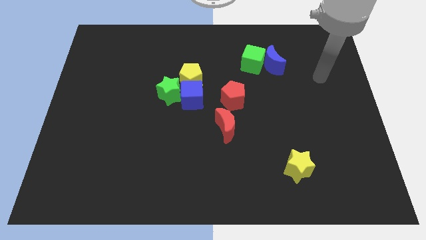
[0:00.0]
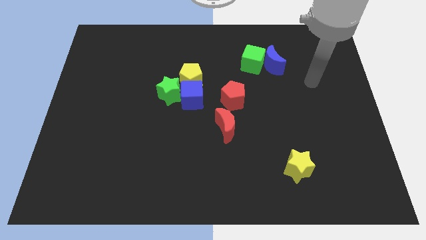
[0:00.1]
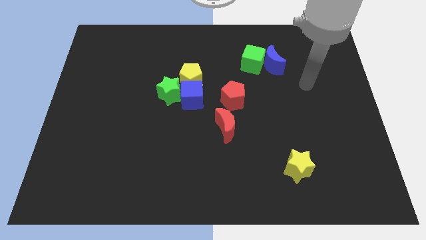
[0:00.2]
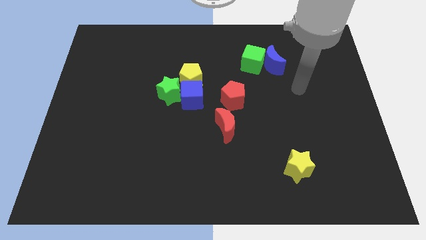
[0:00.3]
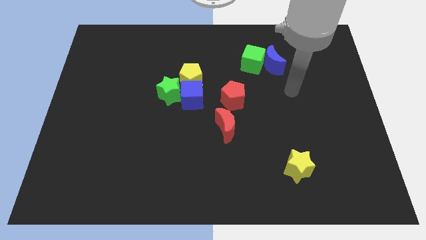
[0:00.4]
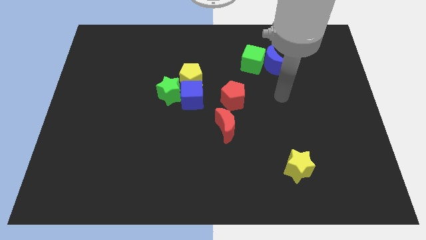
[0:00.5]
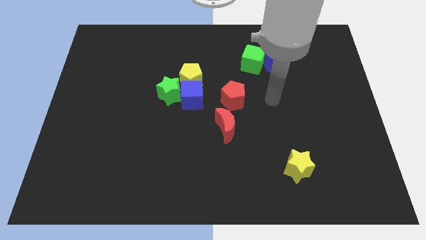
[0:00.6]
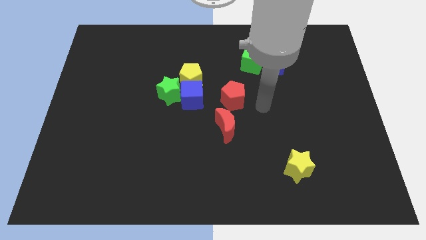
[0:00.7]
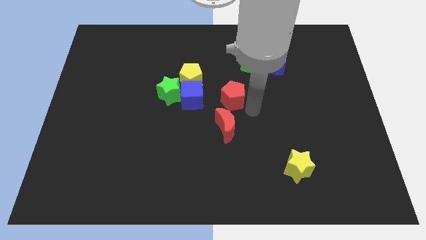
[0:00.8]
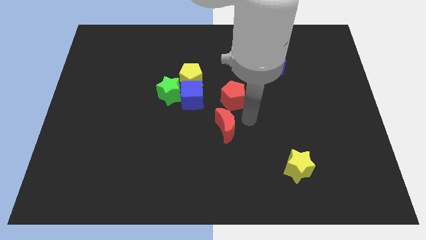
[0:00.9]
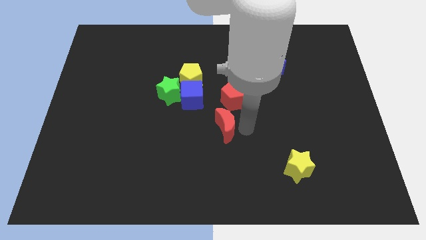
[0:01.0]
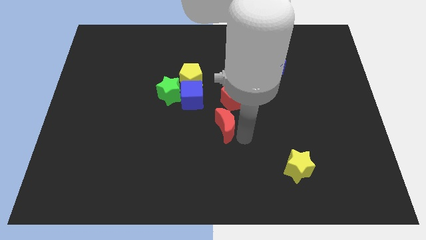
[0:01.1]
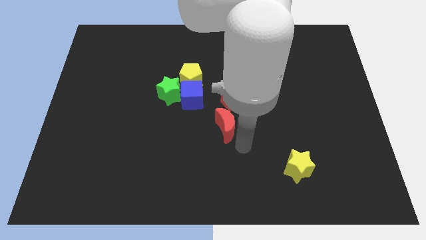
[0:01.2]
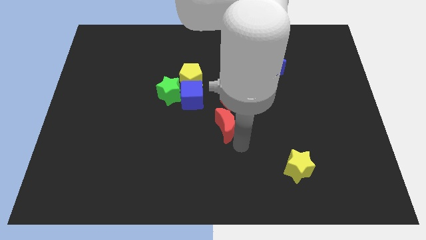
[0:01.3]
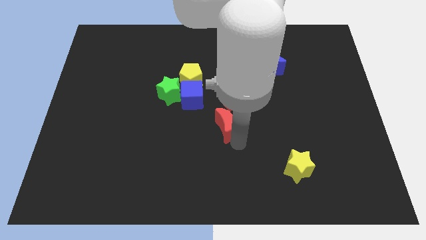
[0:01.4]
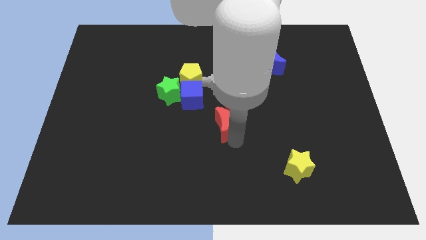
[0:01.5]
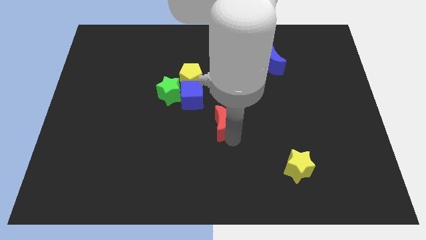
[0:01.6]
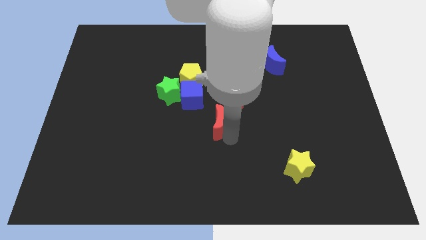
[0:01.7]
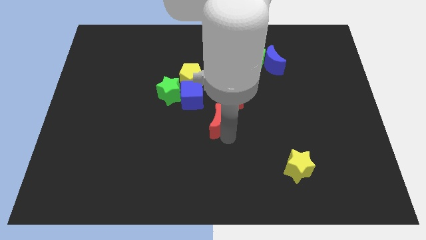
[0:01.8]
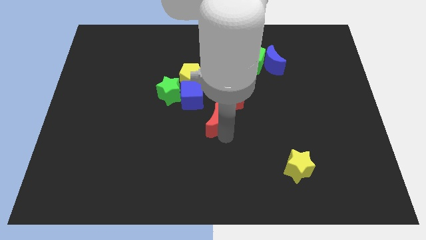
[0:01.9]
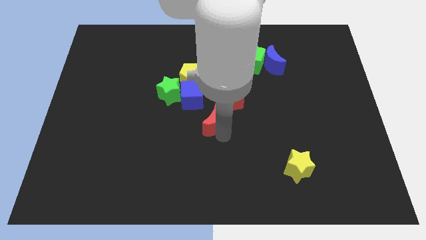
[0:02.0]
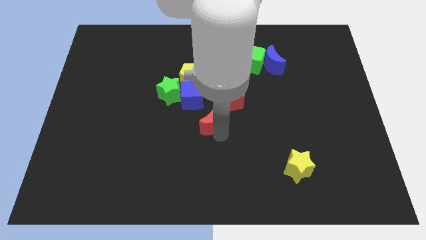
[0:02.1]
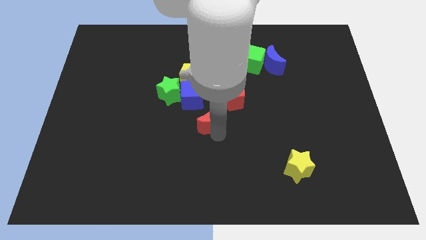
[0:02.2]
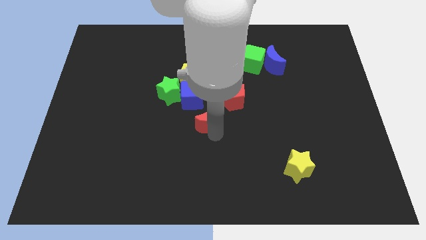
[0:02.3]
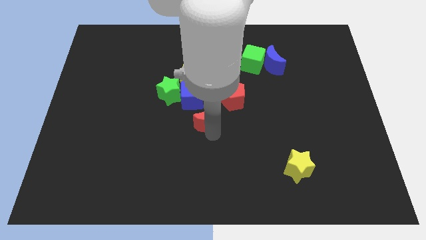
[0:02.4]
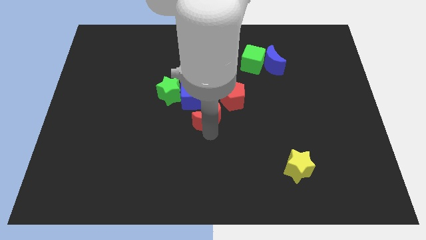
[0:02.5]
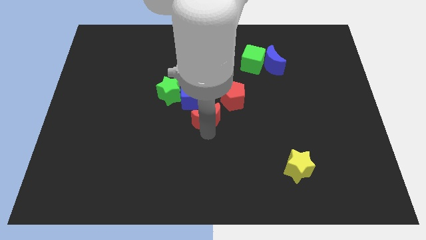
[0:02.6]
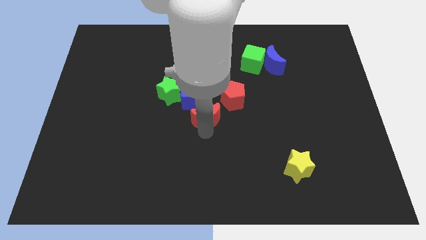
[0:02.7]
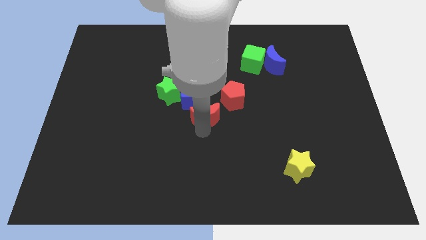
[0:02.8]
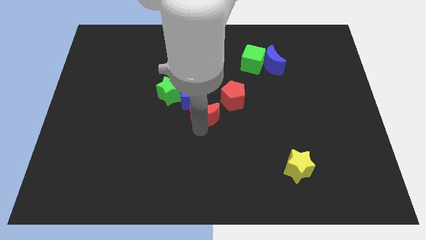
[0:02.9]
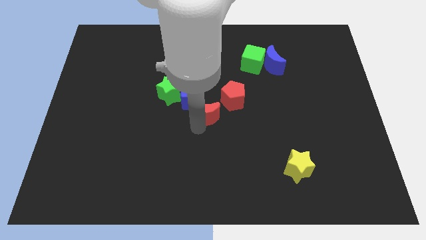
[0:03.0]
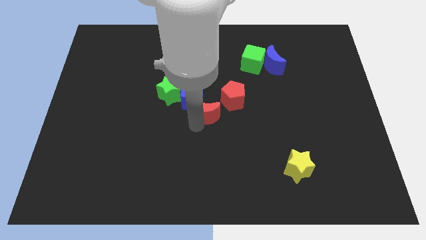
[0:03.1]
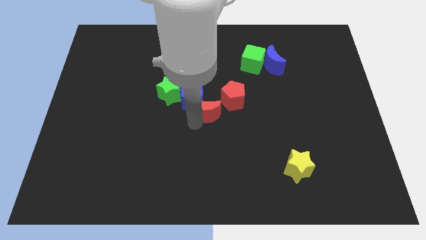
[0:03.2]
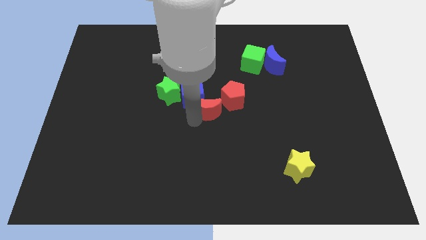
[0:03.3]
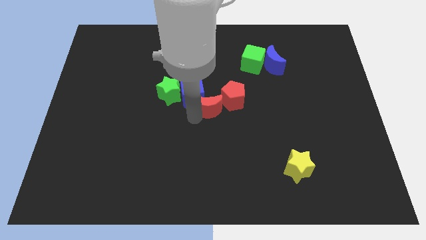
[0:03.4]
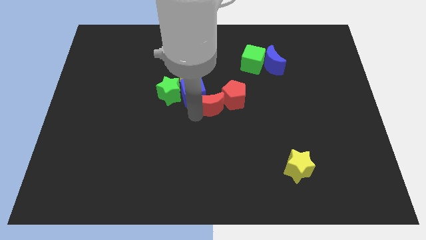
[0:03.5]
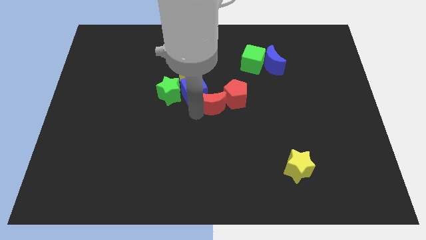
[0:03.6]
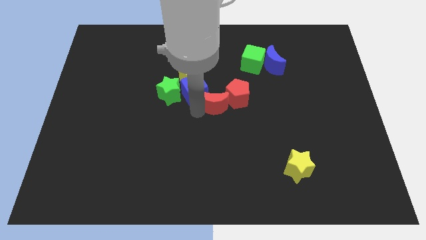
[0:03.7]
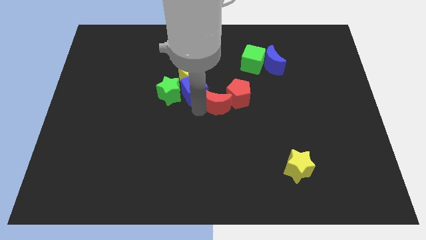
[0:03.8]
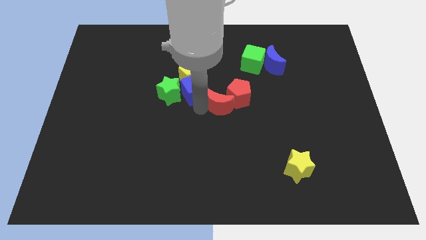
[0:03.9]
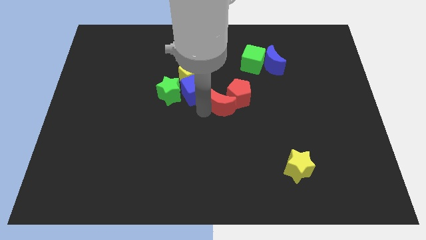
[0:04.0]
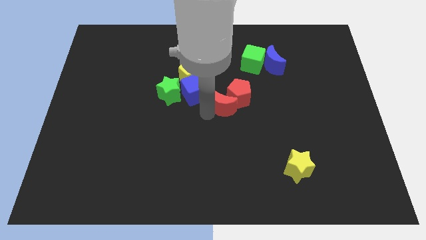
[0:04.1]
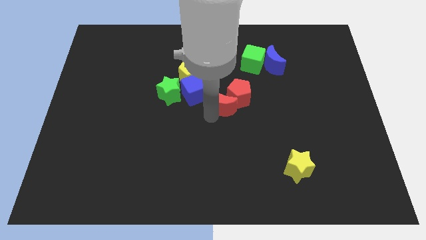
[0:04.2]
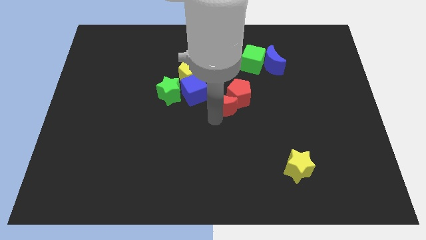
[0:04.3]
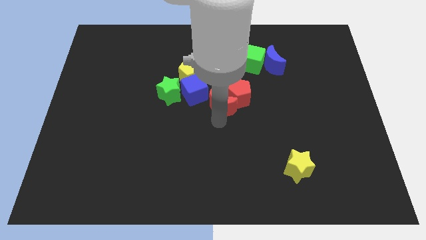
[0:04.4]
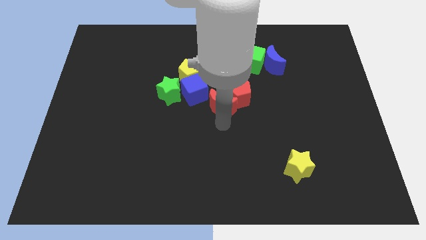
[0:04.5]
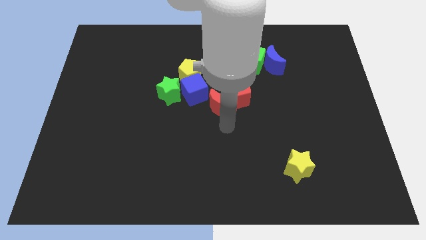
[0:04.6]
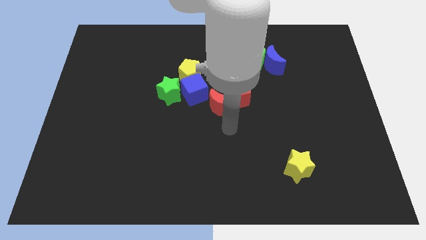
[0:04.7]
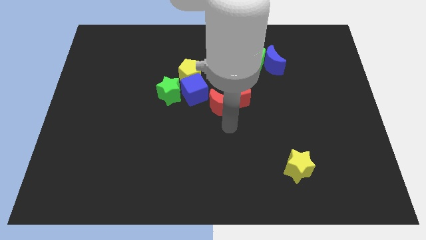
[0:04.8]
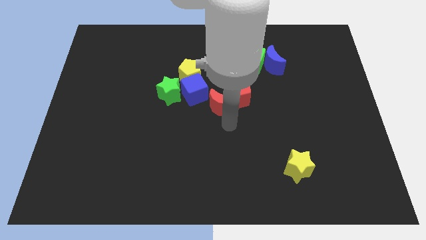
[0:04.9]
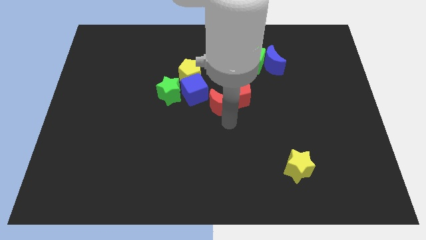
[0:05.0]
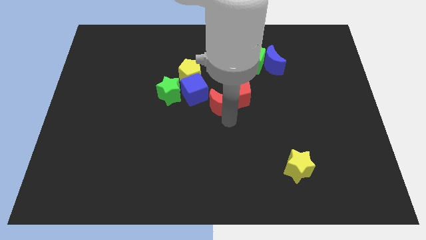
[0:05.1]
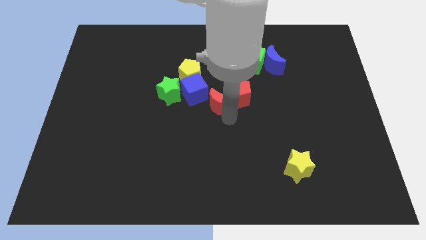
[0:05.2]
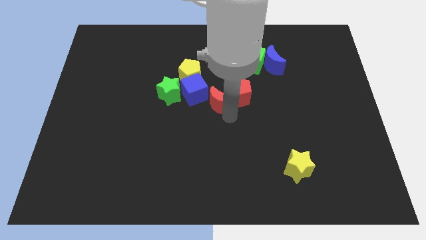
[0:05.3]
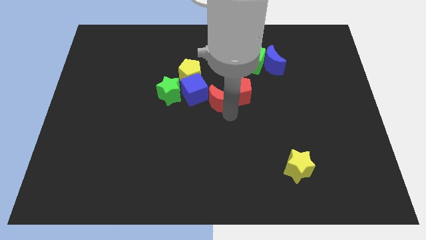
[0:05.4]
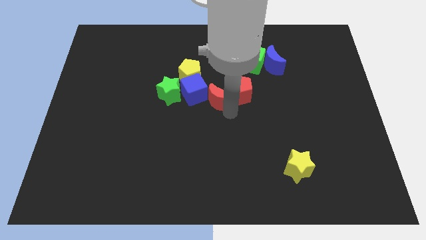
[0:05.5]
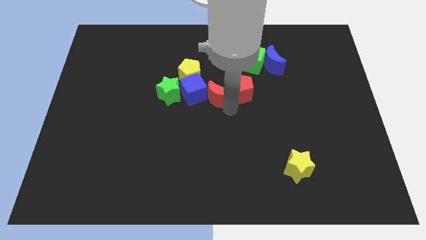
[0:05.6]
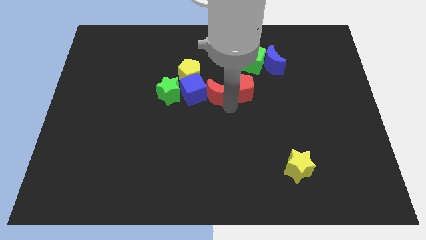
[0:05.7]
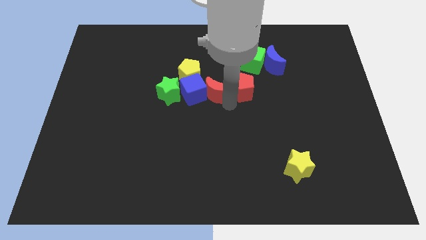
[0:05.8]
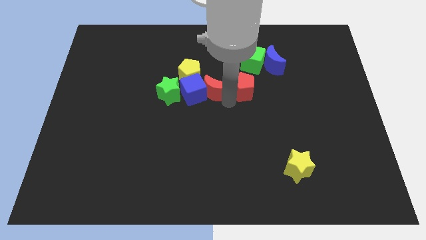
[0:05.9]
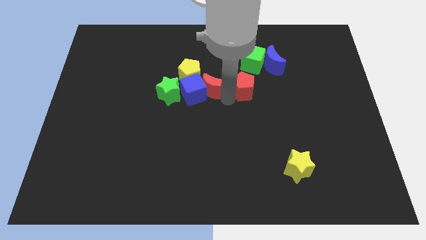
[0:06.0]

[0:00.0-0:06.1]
slide the red moon to the top left of the red pentagon

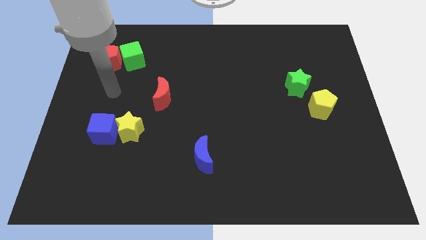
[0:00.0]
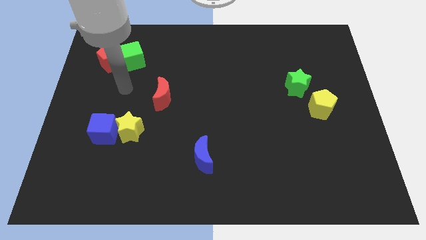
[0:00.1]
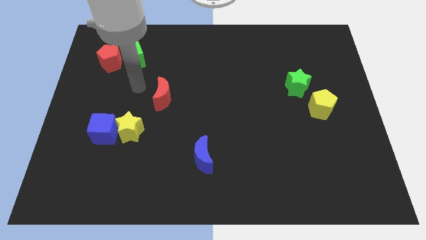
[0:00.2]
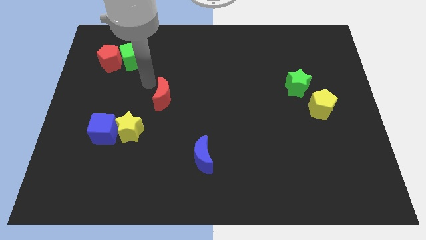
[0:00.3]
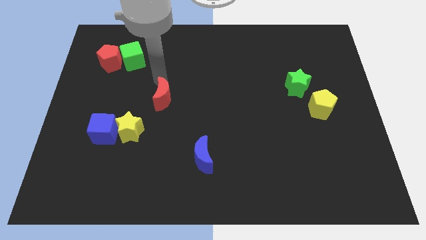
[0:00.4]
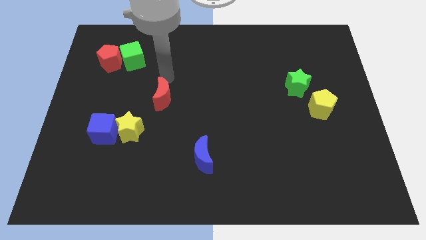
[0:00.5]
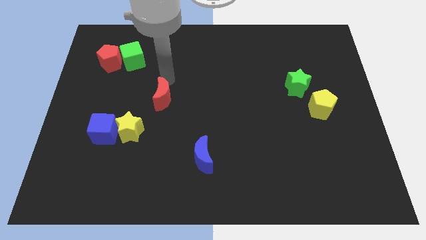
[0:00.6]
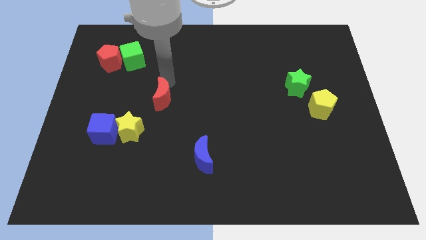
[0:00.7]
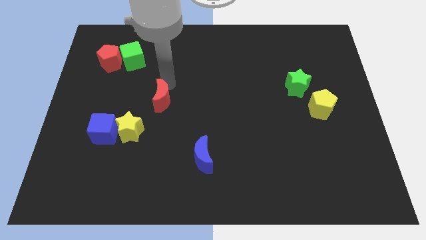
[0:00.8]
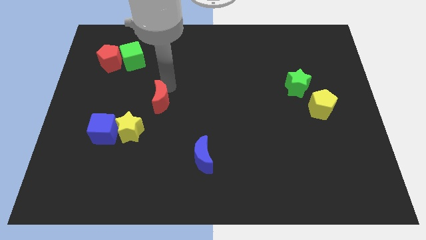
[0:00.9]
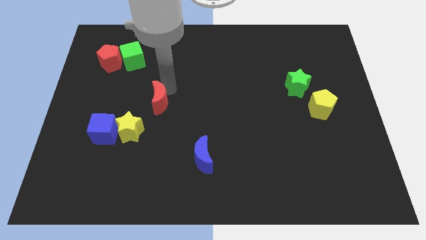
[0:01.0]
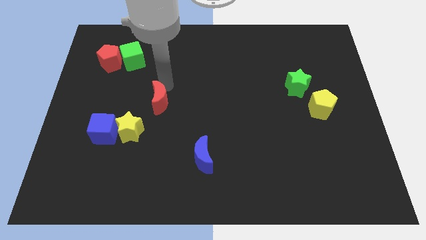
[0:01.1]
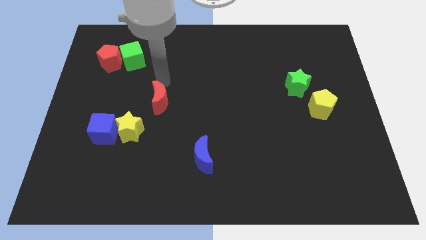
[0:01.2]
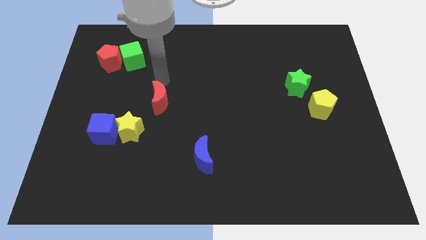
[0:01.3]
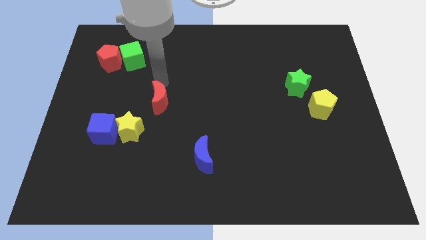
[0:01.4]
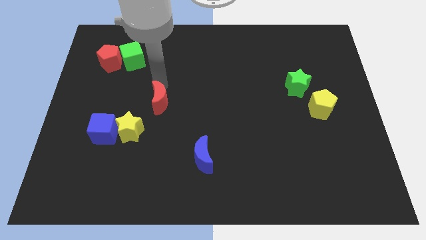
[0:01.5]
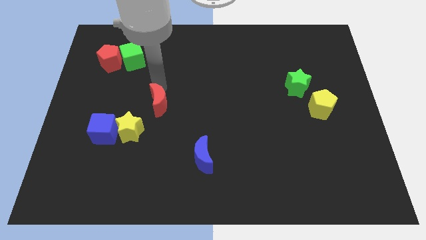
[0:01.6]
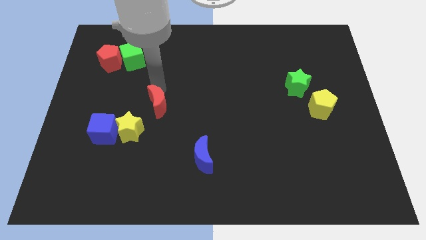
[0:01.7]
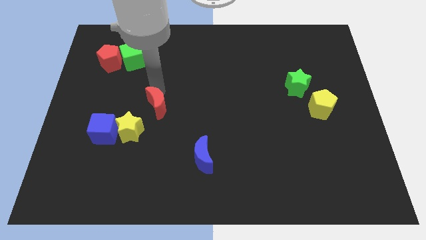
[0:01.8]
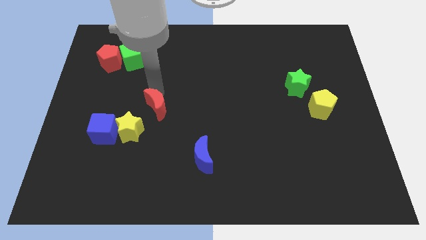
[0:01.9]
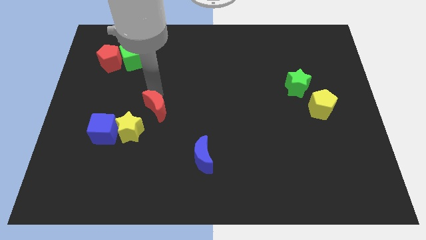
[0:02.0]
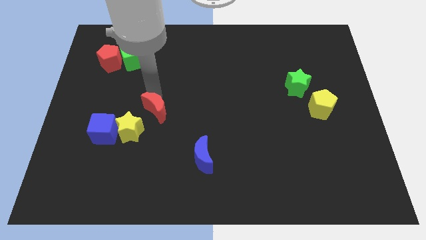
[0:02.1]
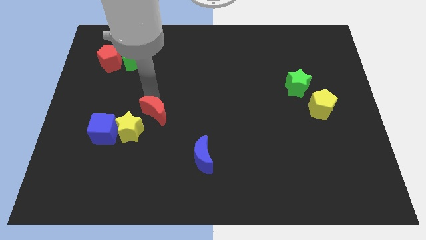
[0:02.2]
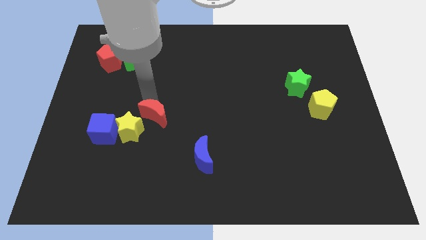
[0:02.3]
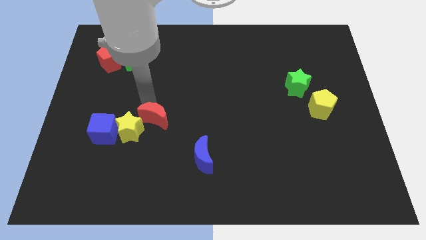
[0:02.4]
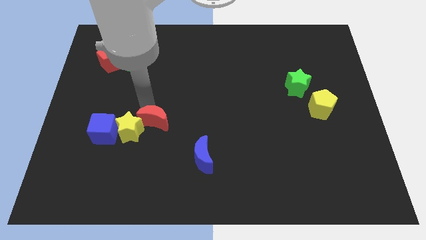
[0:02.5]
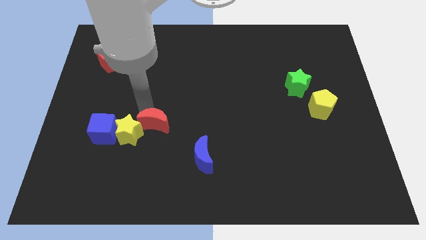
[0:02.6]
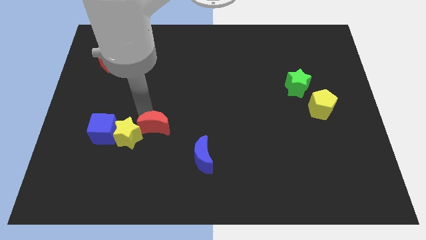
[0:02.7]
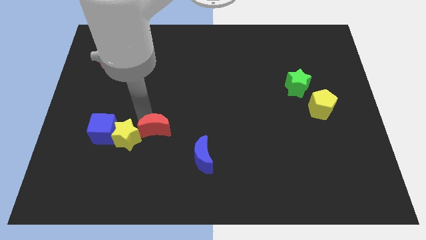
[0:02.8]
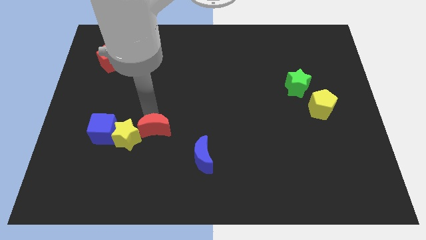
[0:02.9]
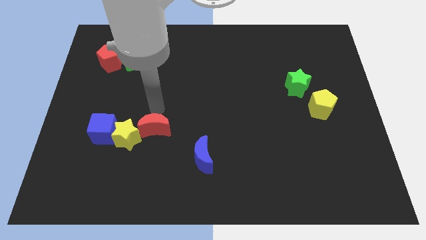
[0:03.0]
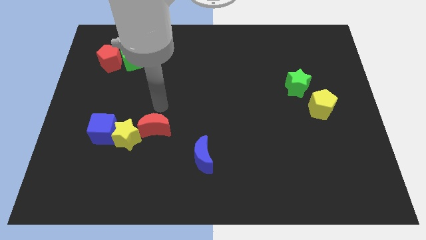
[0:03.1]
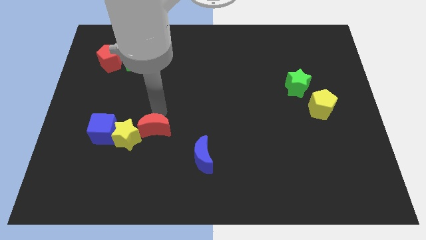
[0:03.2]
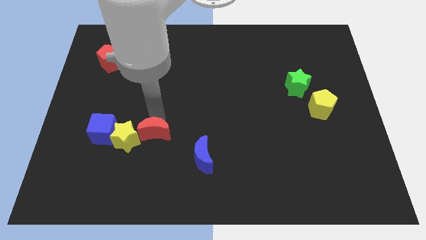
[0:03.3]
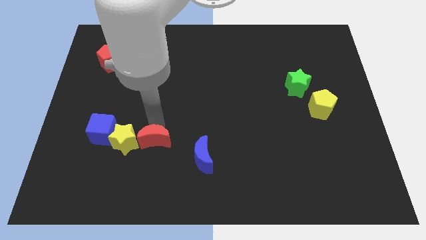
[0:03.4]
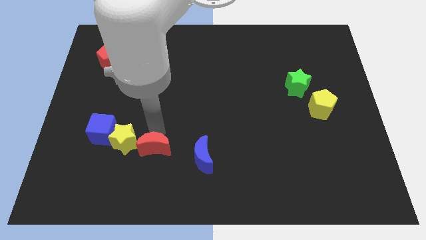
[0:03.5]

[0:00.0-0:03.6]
slide the red moon to the bottom right side of the yellow star
